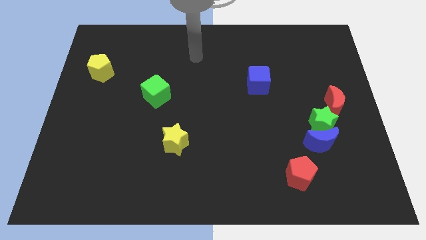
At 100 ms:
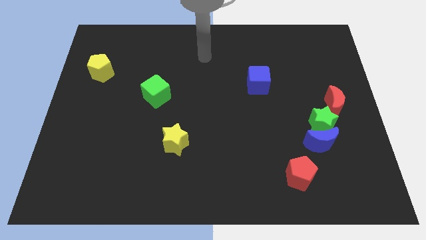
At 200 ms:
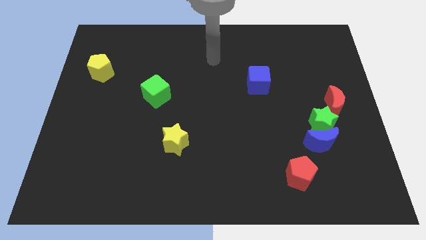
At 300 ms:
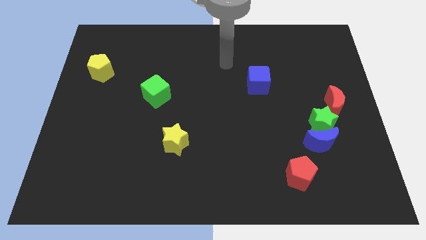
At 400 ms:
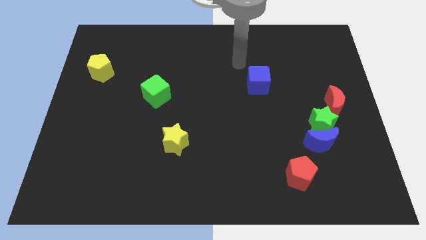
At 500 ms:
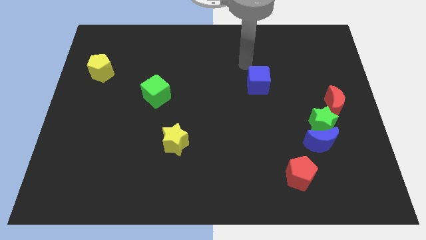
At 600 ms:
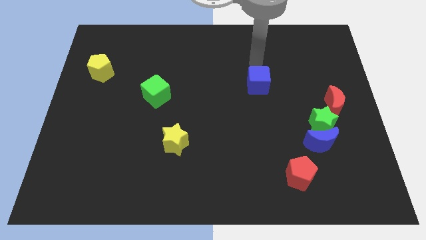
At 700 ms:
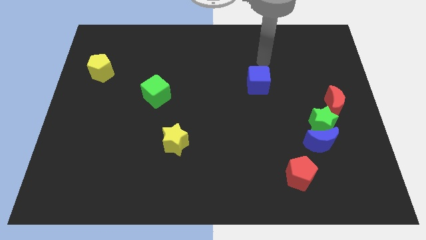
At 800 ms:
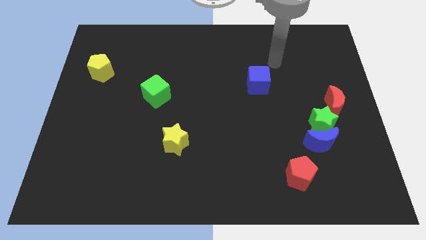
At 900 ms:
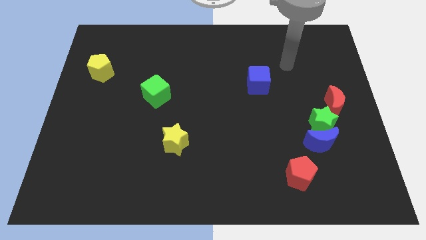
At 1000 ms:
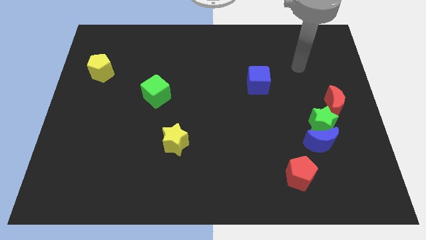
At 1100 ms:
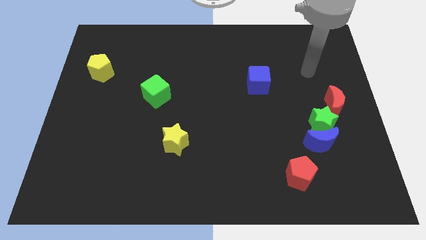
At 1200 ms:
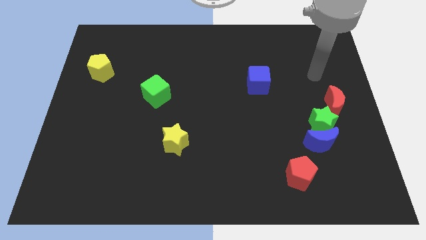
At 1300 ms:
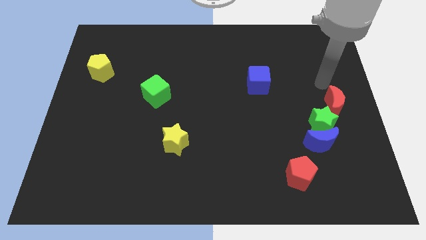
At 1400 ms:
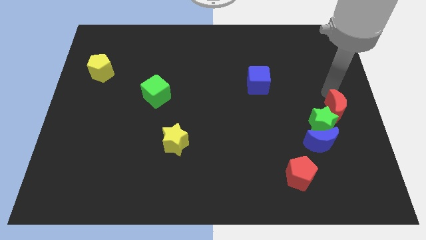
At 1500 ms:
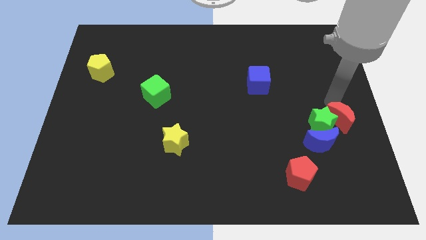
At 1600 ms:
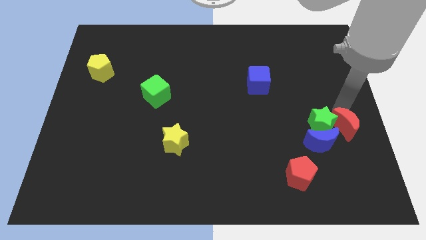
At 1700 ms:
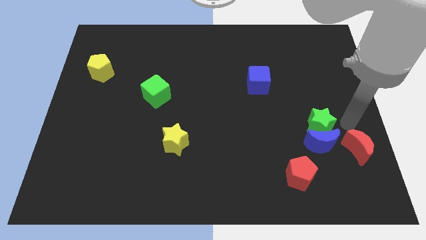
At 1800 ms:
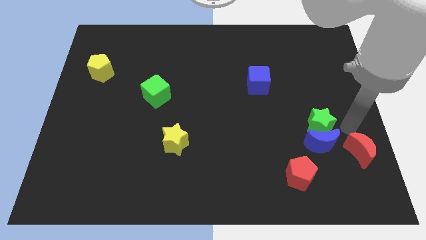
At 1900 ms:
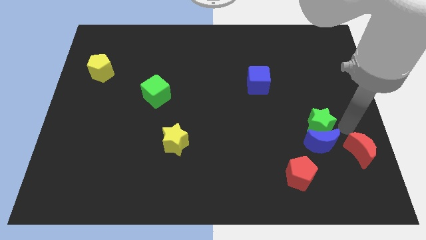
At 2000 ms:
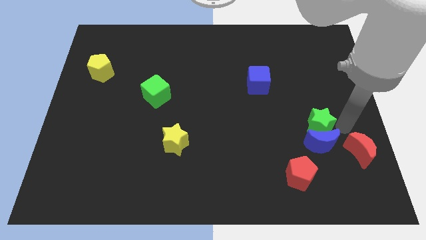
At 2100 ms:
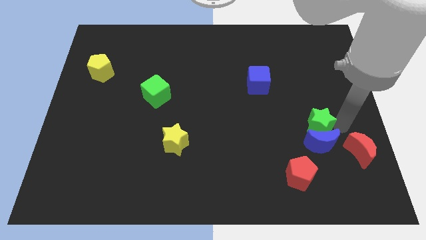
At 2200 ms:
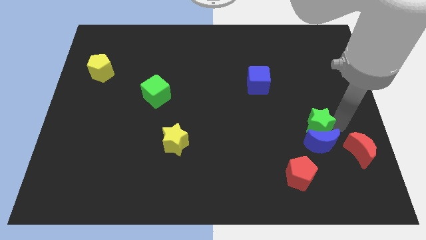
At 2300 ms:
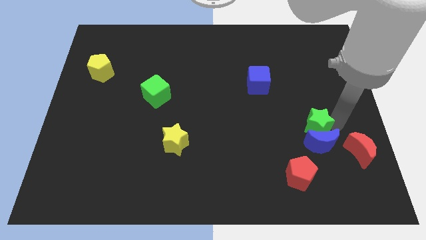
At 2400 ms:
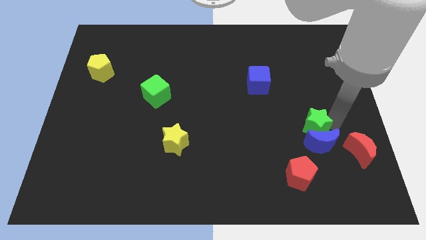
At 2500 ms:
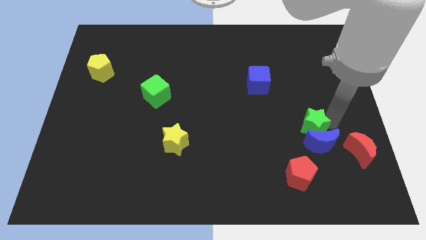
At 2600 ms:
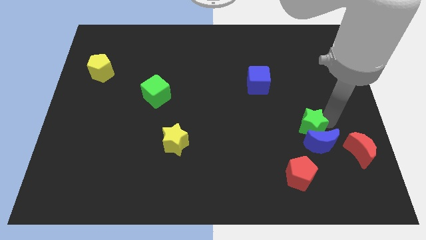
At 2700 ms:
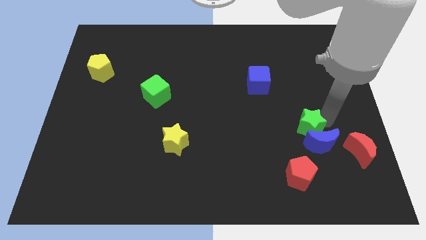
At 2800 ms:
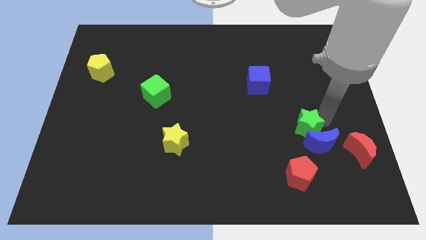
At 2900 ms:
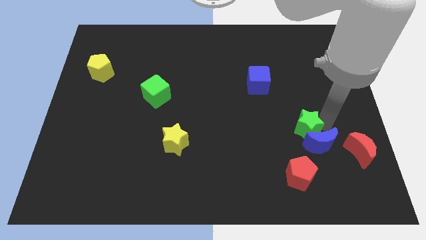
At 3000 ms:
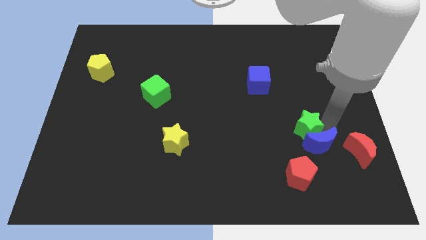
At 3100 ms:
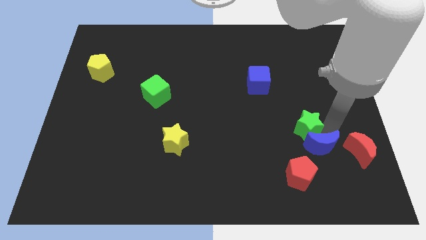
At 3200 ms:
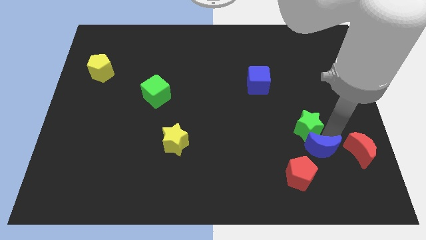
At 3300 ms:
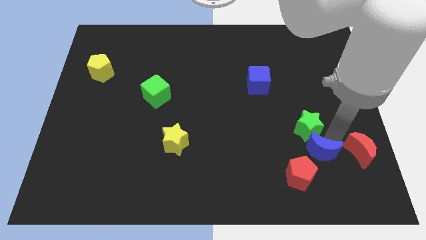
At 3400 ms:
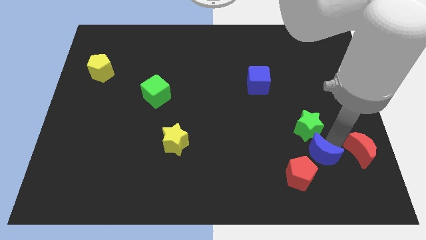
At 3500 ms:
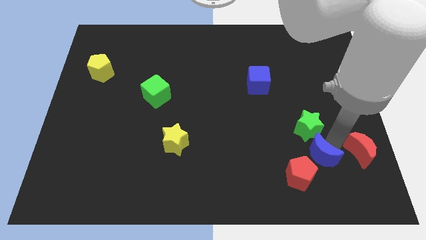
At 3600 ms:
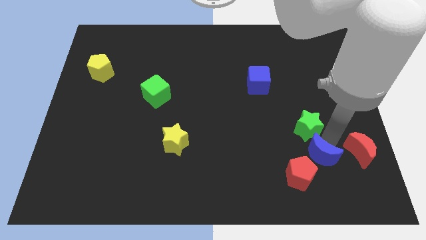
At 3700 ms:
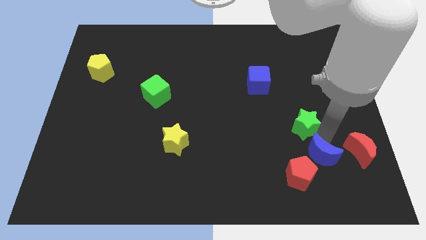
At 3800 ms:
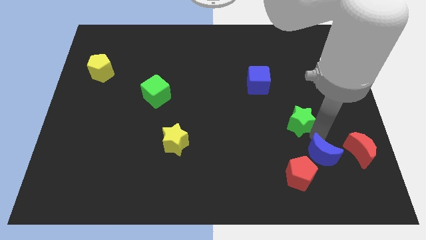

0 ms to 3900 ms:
separate the green star from the blue moon and red moon

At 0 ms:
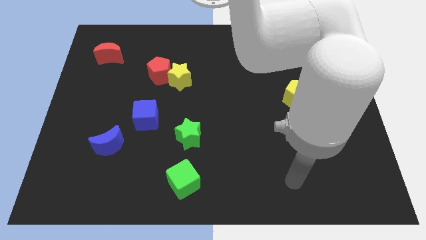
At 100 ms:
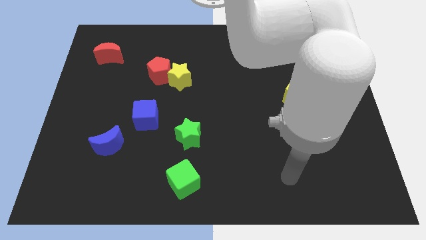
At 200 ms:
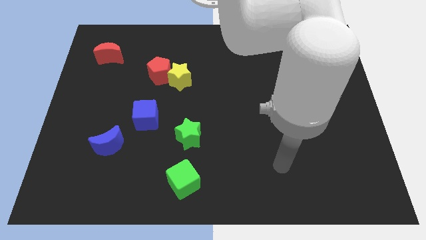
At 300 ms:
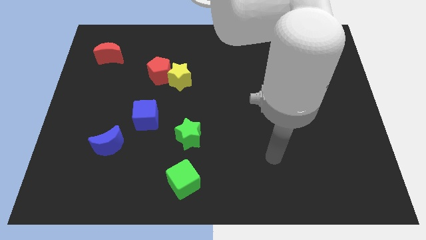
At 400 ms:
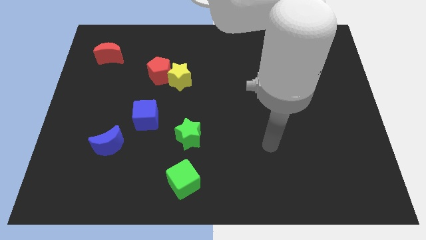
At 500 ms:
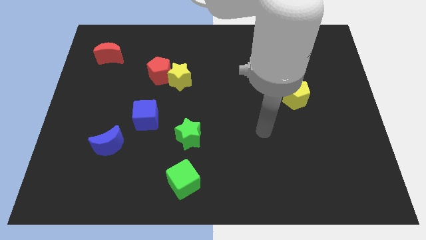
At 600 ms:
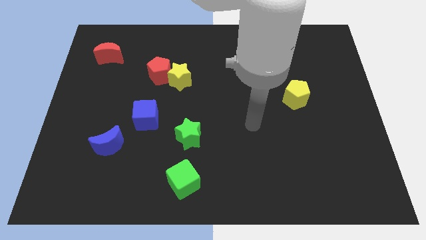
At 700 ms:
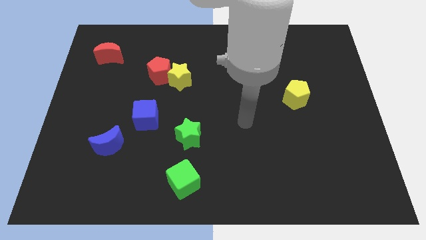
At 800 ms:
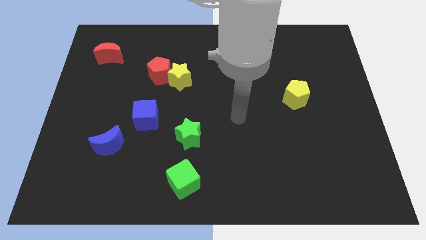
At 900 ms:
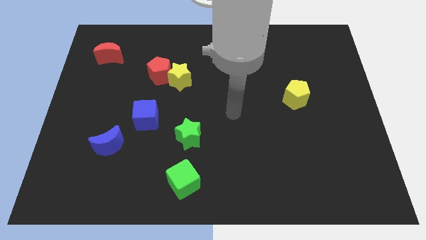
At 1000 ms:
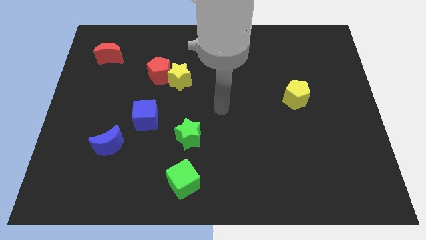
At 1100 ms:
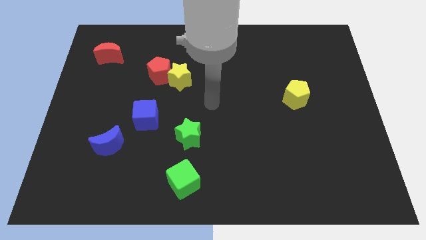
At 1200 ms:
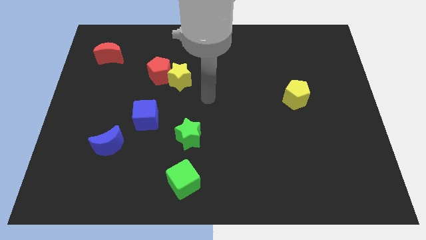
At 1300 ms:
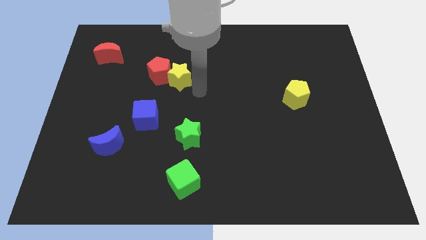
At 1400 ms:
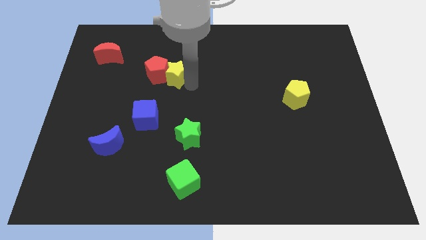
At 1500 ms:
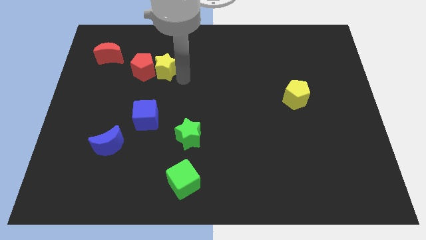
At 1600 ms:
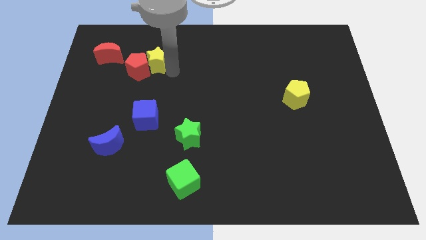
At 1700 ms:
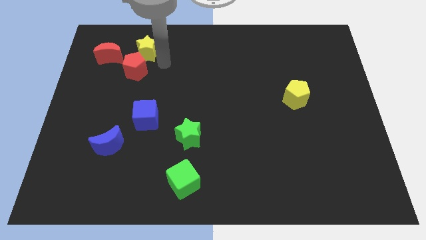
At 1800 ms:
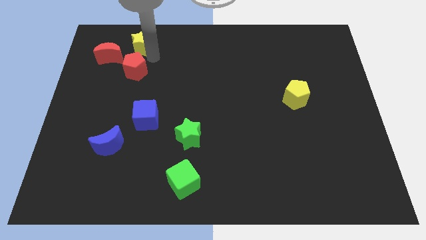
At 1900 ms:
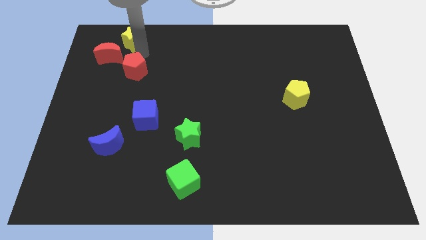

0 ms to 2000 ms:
pull the red pentagon apart from the yellow star

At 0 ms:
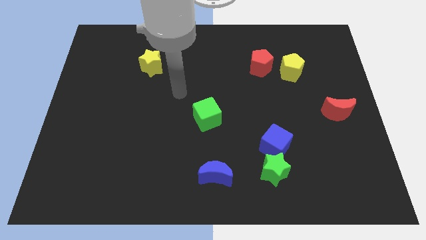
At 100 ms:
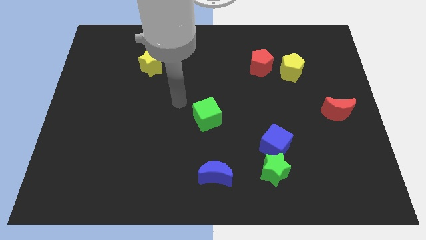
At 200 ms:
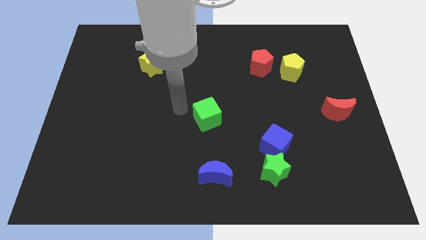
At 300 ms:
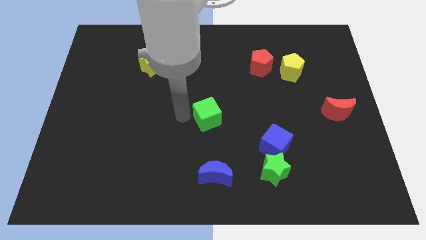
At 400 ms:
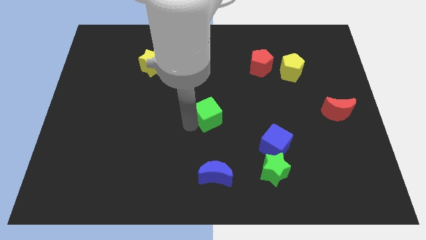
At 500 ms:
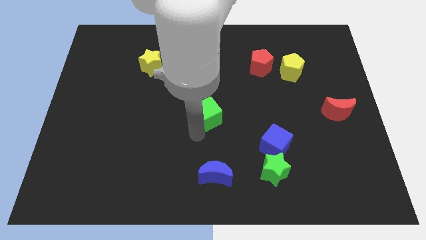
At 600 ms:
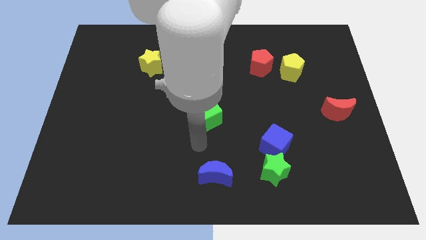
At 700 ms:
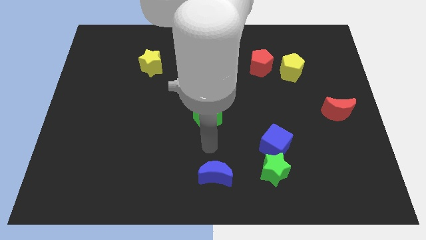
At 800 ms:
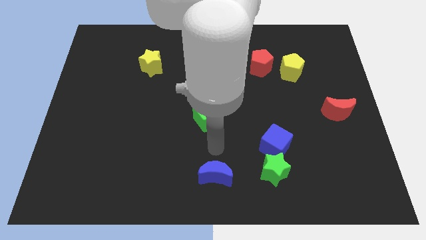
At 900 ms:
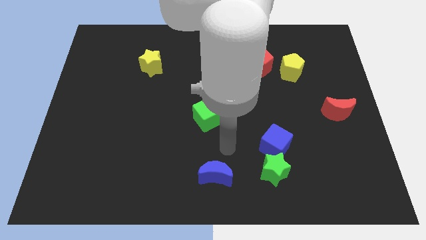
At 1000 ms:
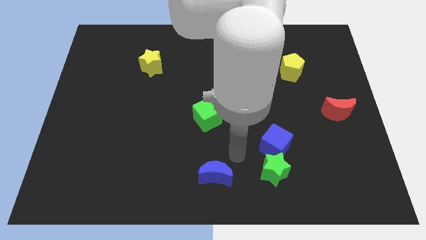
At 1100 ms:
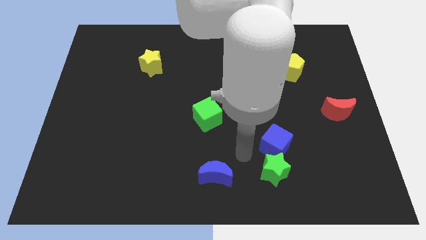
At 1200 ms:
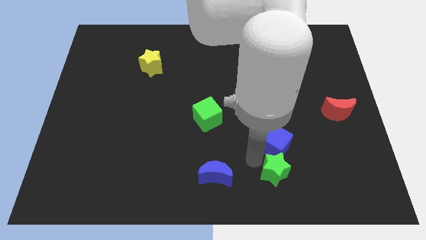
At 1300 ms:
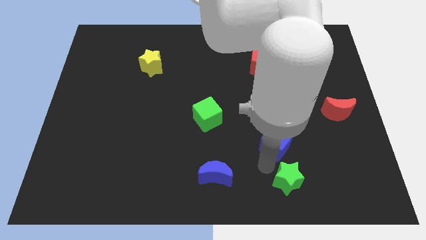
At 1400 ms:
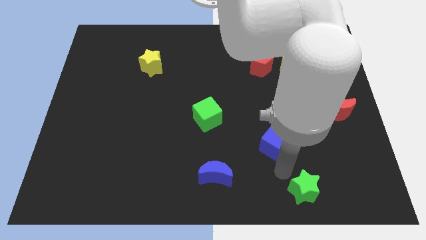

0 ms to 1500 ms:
separate the blue cube from the green star

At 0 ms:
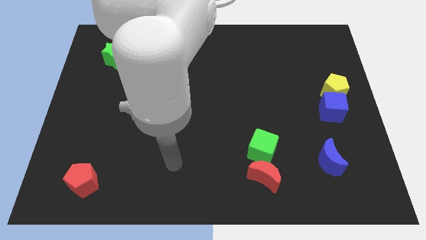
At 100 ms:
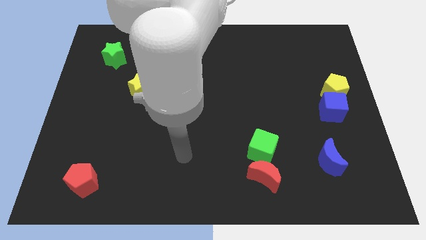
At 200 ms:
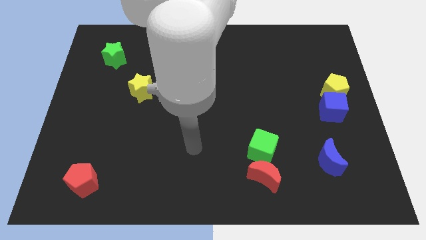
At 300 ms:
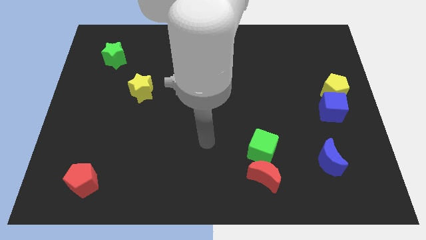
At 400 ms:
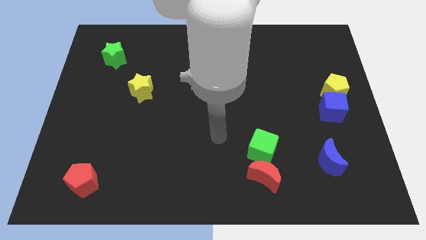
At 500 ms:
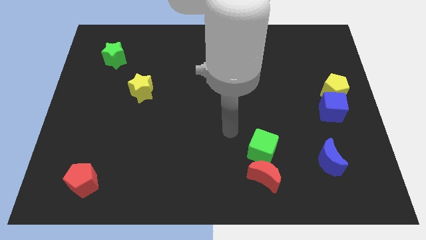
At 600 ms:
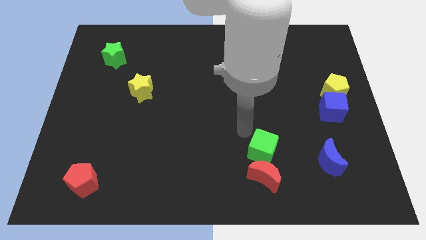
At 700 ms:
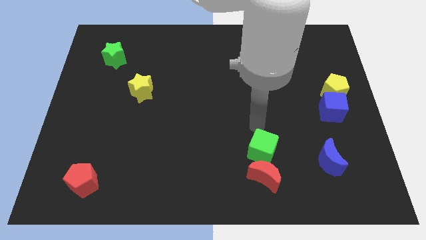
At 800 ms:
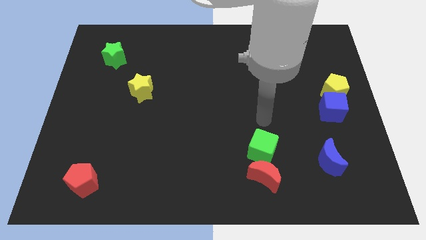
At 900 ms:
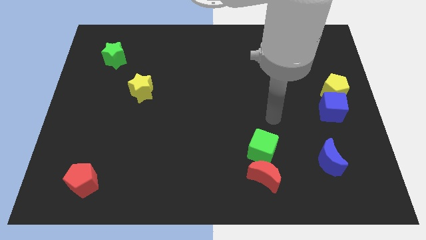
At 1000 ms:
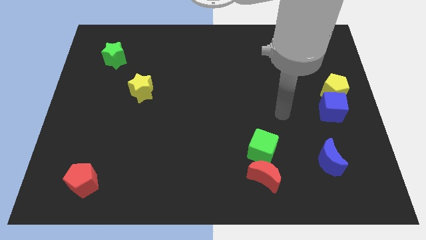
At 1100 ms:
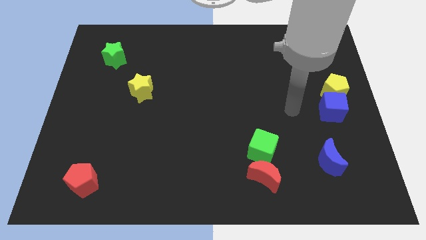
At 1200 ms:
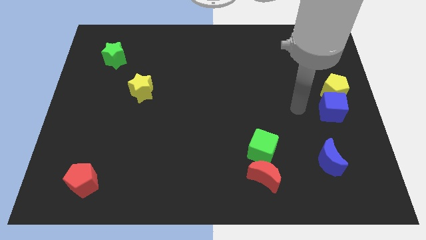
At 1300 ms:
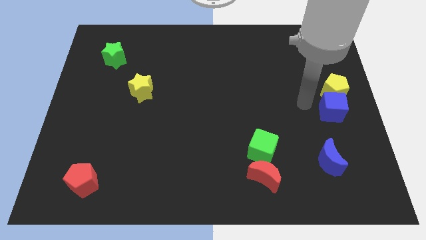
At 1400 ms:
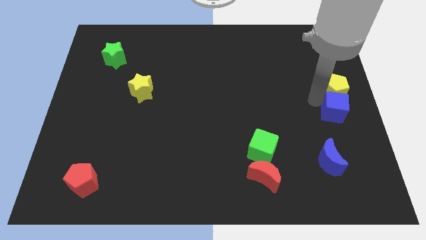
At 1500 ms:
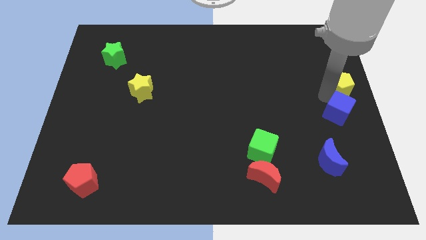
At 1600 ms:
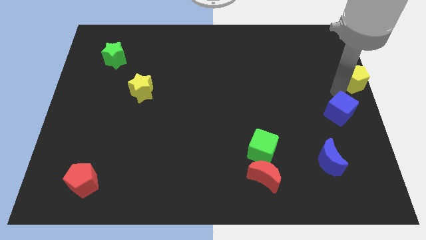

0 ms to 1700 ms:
move the blue cube away from the yellow pentagon

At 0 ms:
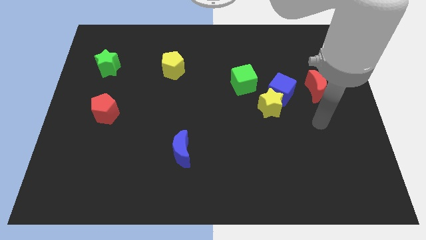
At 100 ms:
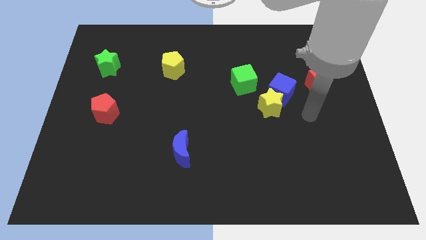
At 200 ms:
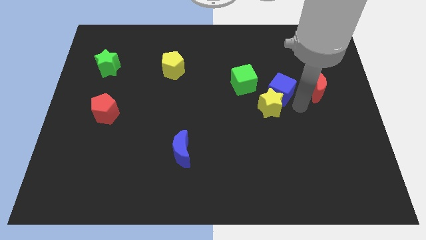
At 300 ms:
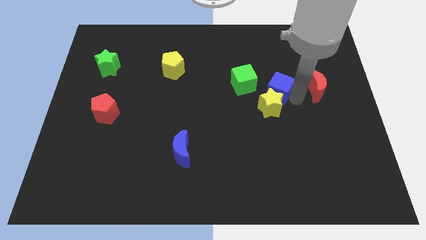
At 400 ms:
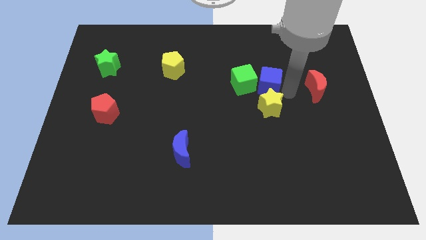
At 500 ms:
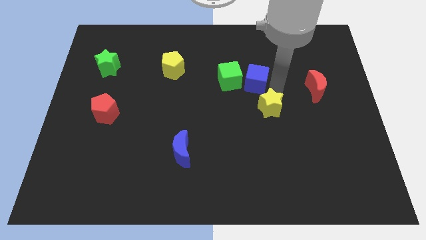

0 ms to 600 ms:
move the yellow star away from the blue cube and green cube
